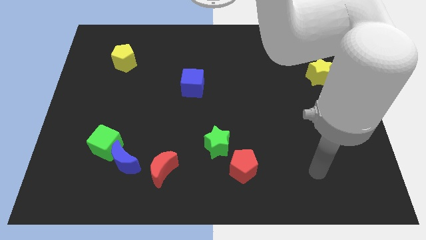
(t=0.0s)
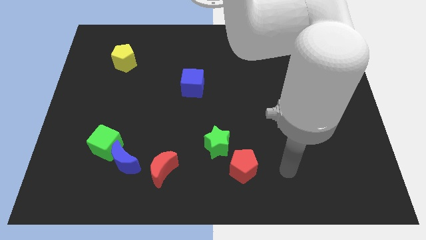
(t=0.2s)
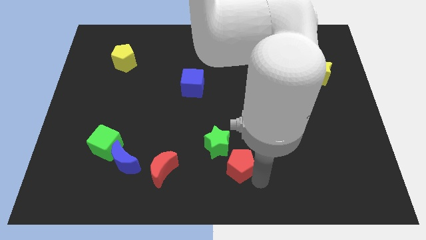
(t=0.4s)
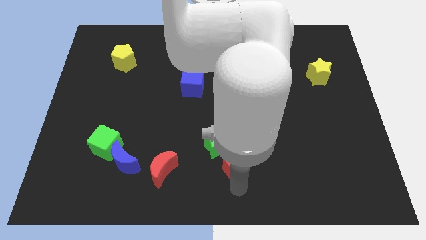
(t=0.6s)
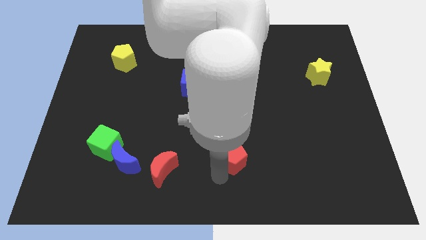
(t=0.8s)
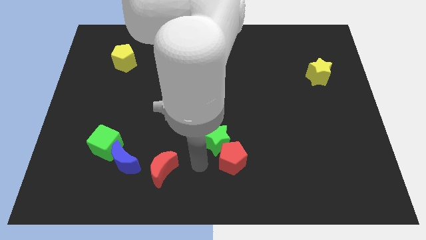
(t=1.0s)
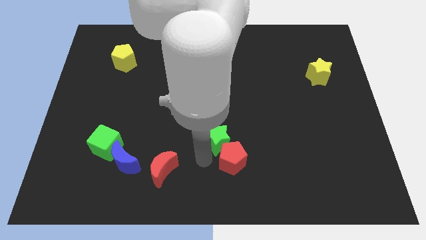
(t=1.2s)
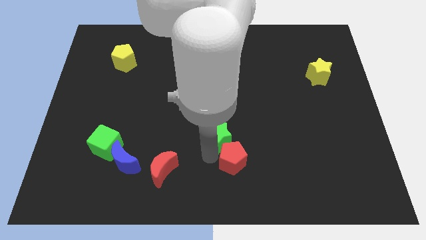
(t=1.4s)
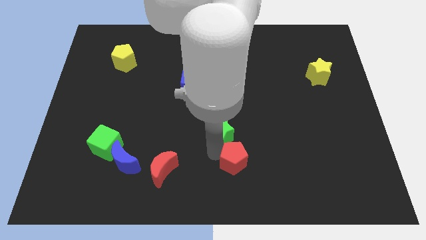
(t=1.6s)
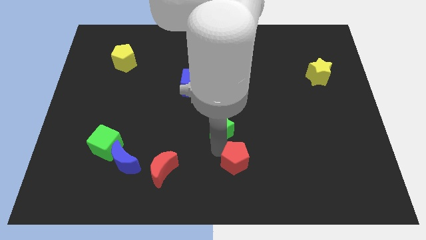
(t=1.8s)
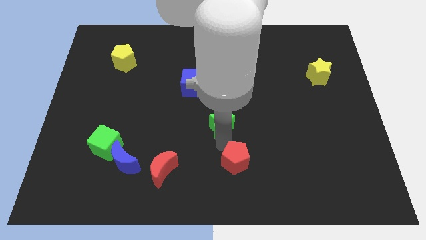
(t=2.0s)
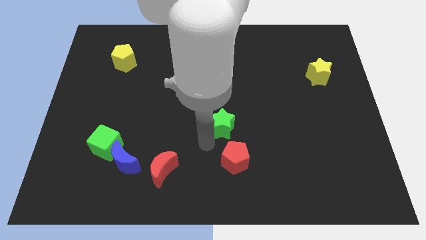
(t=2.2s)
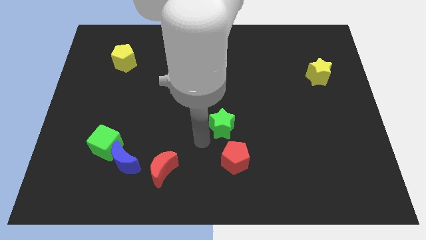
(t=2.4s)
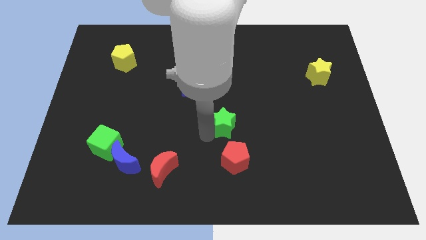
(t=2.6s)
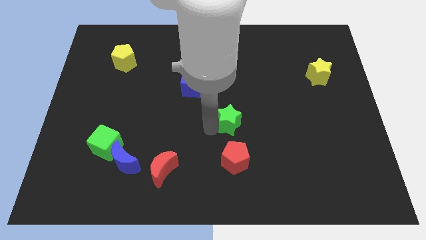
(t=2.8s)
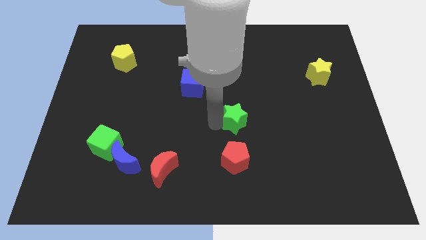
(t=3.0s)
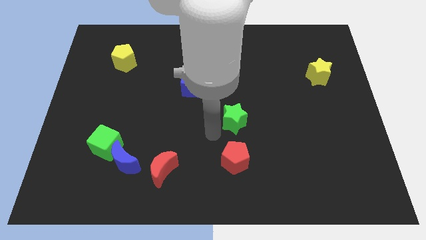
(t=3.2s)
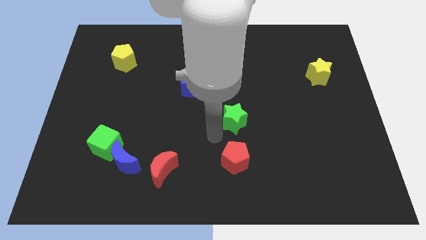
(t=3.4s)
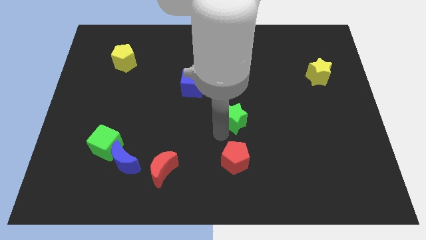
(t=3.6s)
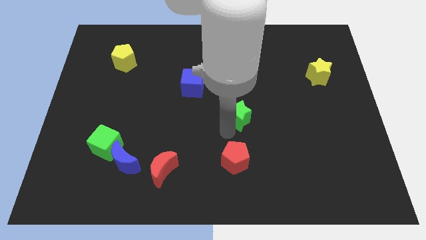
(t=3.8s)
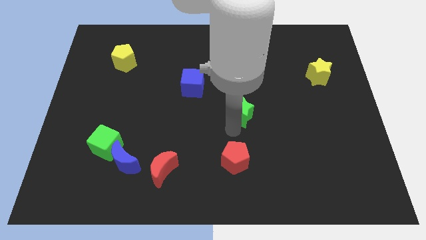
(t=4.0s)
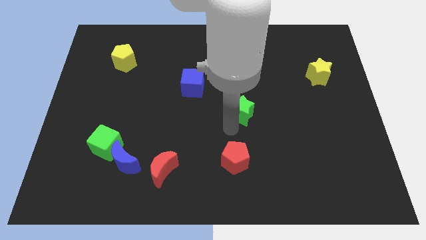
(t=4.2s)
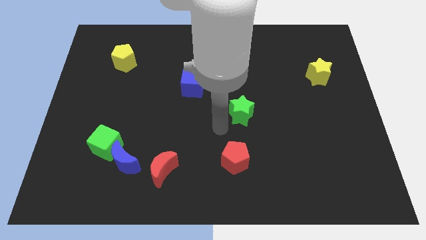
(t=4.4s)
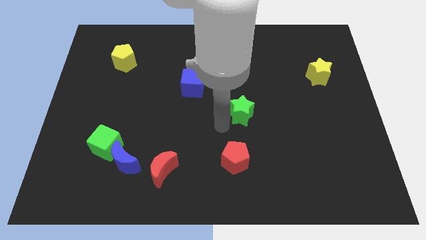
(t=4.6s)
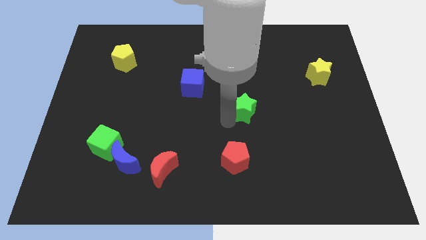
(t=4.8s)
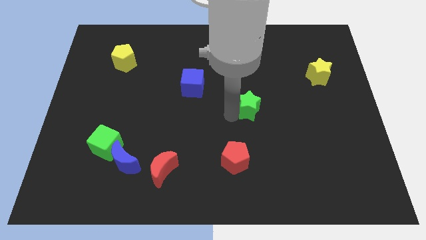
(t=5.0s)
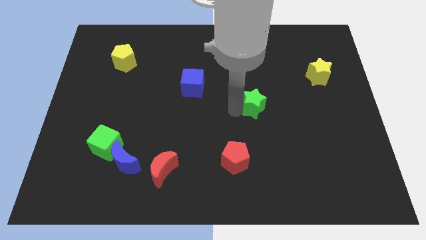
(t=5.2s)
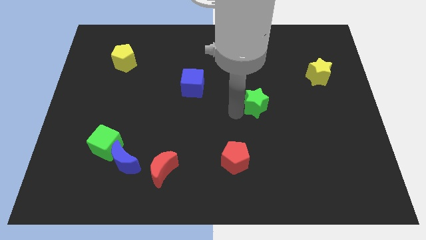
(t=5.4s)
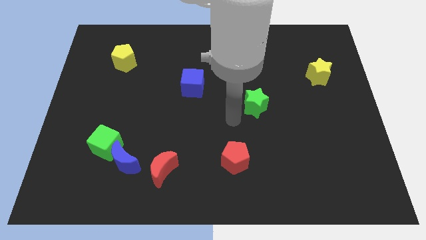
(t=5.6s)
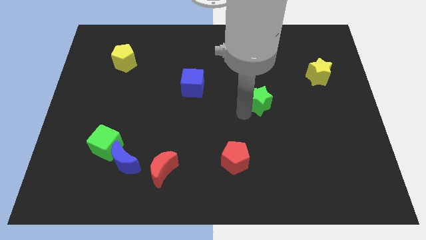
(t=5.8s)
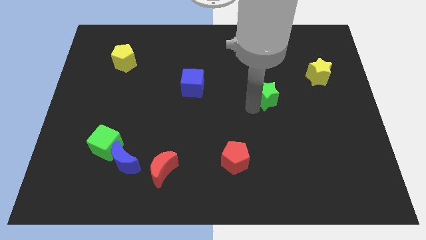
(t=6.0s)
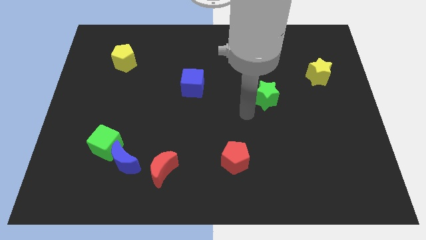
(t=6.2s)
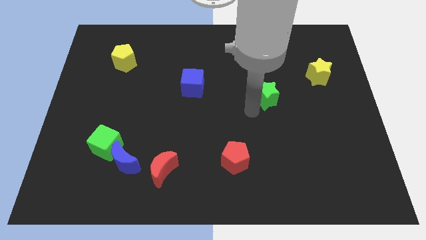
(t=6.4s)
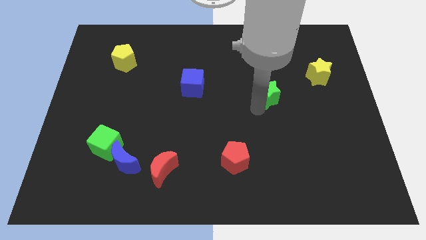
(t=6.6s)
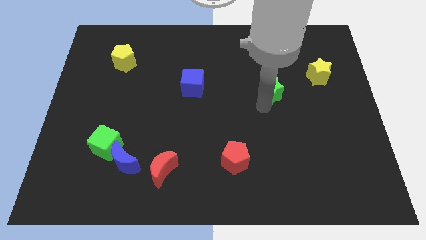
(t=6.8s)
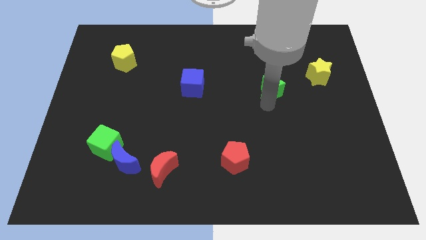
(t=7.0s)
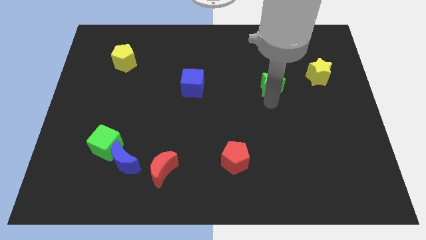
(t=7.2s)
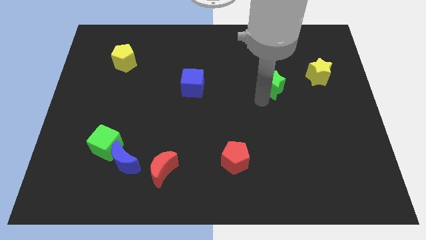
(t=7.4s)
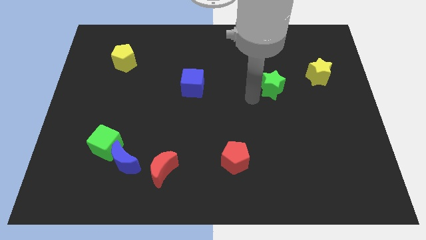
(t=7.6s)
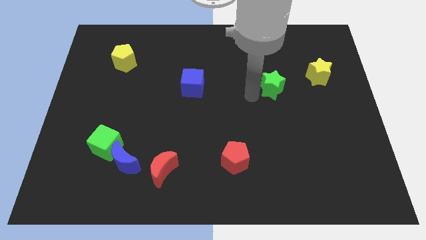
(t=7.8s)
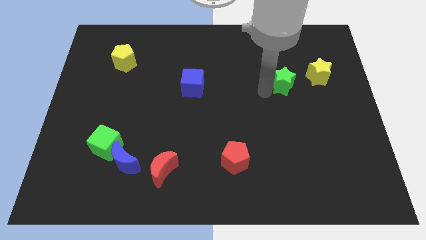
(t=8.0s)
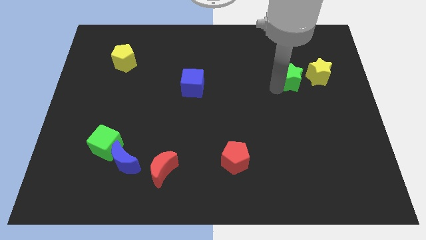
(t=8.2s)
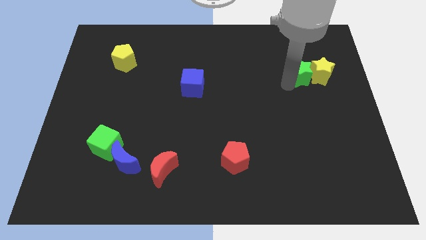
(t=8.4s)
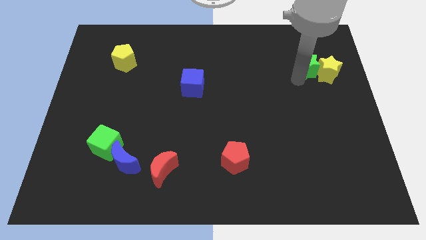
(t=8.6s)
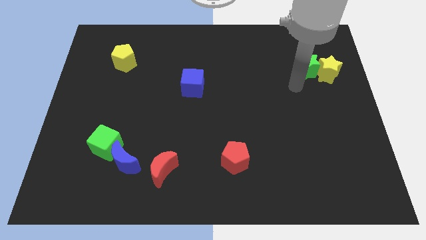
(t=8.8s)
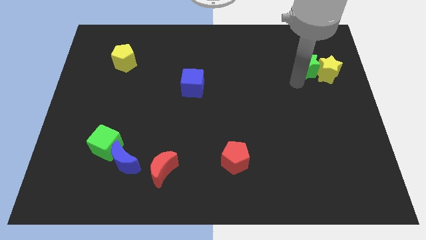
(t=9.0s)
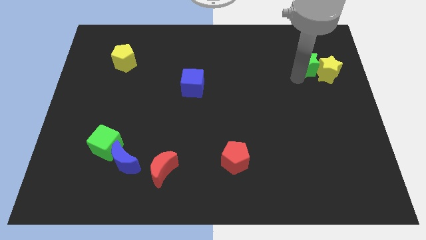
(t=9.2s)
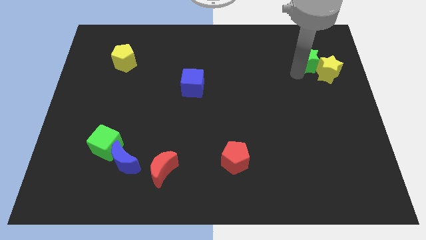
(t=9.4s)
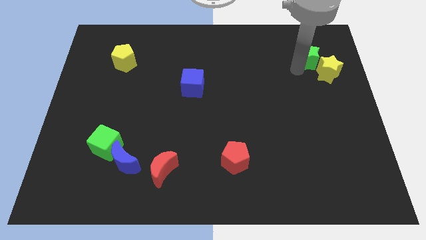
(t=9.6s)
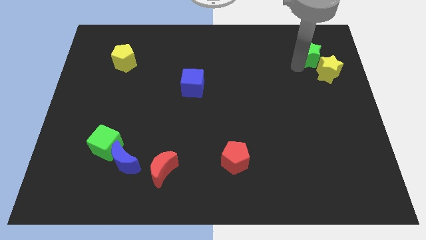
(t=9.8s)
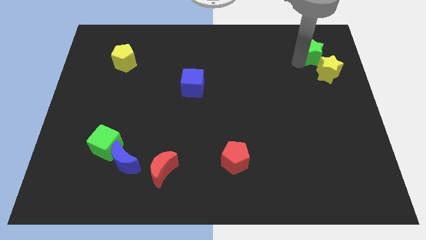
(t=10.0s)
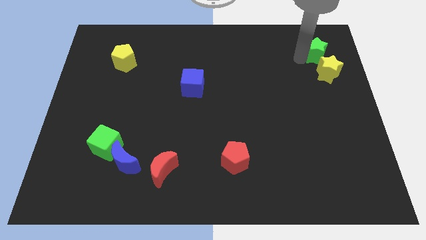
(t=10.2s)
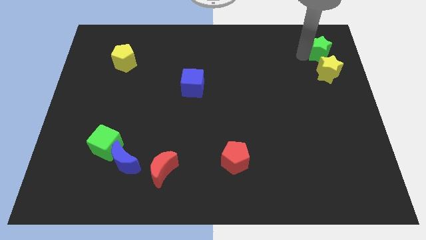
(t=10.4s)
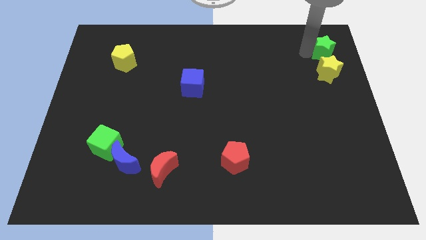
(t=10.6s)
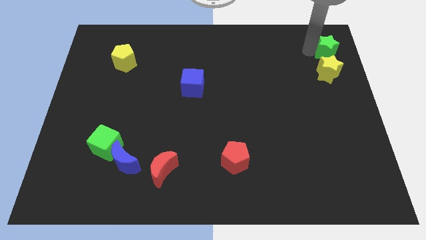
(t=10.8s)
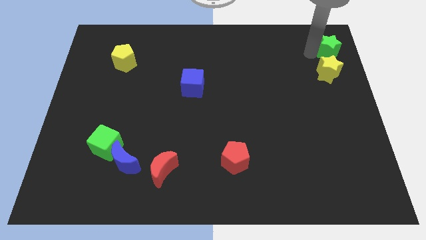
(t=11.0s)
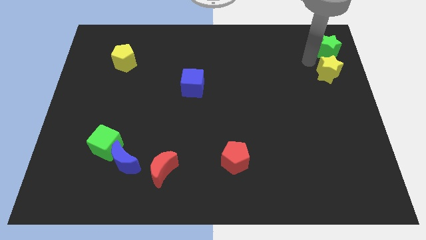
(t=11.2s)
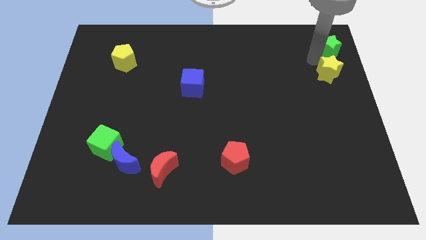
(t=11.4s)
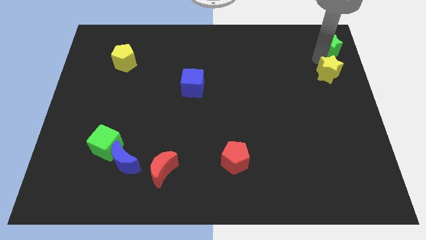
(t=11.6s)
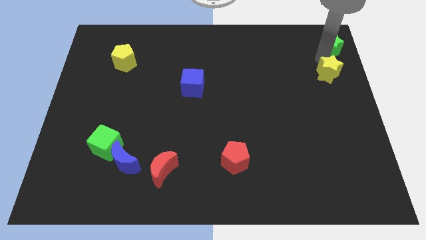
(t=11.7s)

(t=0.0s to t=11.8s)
slide the green star to the upper right corner
